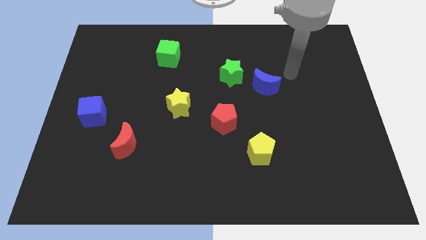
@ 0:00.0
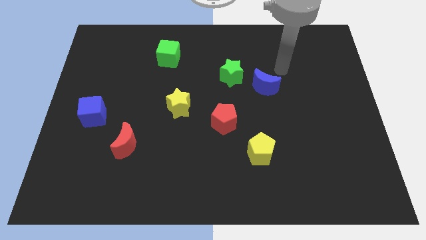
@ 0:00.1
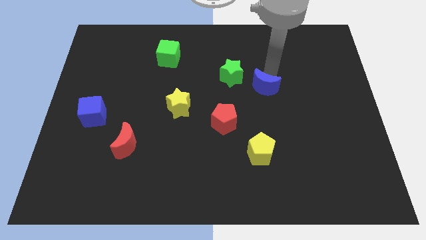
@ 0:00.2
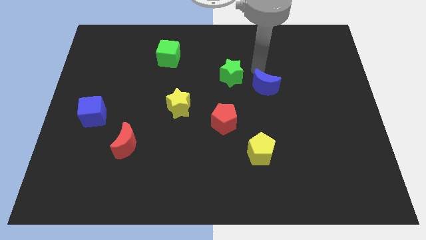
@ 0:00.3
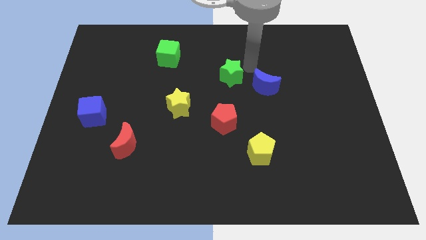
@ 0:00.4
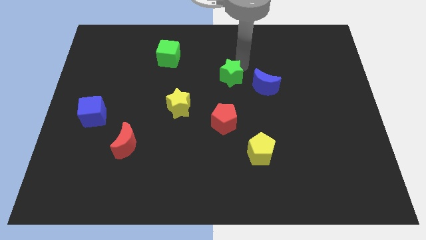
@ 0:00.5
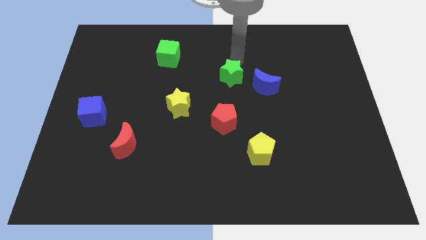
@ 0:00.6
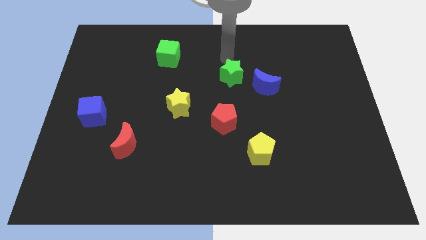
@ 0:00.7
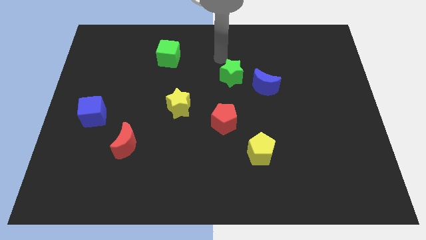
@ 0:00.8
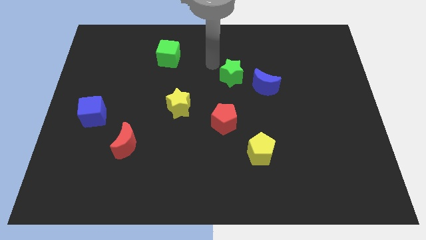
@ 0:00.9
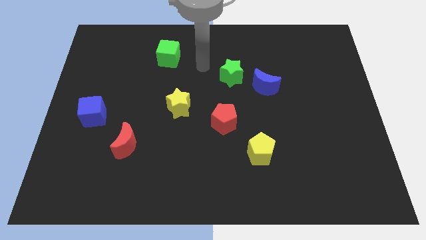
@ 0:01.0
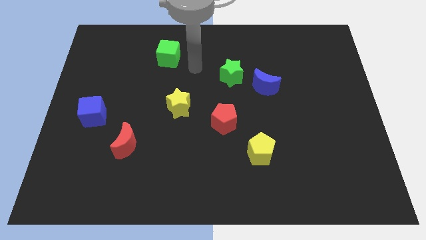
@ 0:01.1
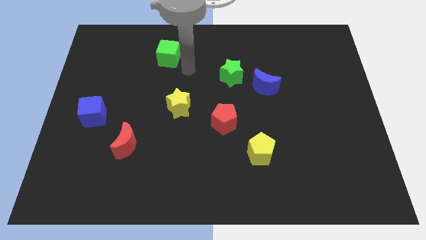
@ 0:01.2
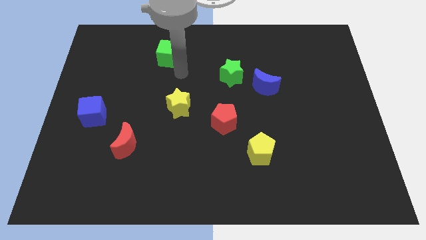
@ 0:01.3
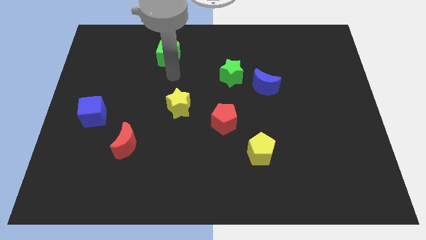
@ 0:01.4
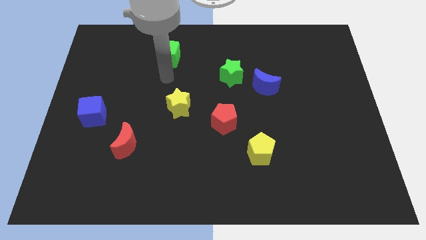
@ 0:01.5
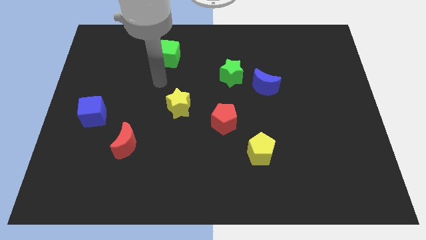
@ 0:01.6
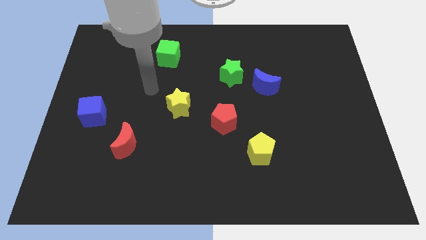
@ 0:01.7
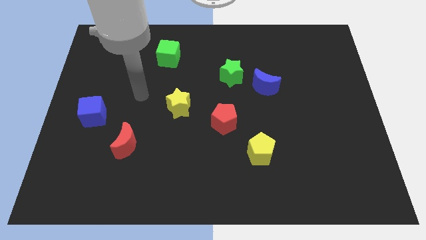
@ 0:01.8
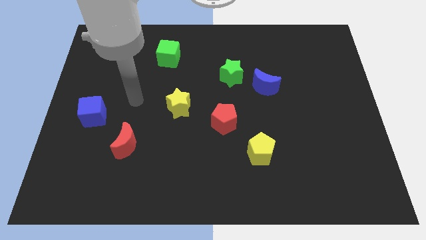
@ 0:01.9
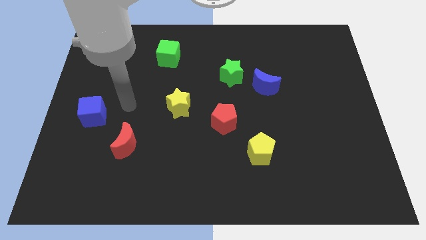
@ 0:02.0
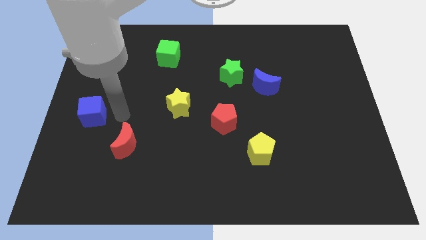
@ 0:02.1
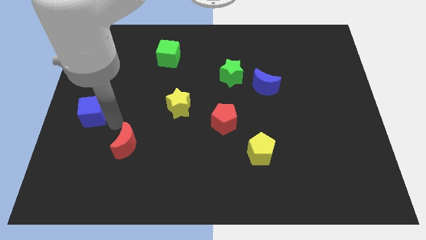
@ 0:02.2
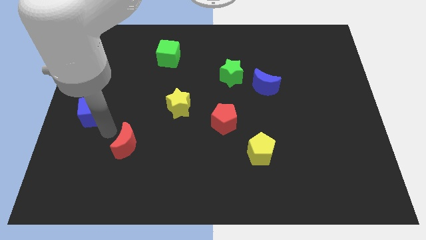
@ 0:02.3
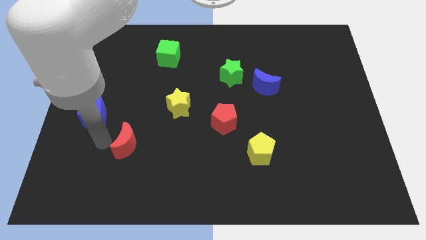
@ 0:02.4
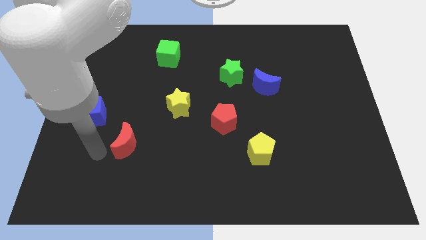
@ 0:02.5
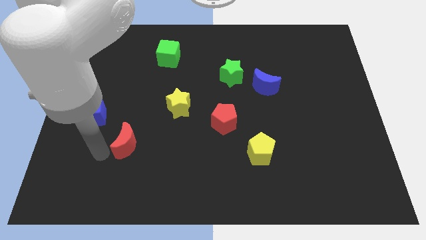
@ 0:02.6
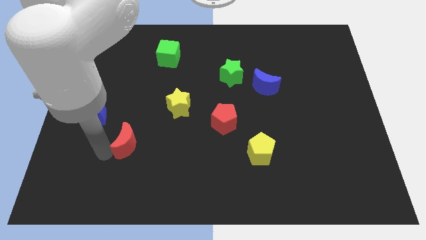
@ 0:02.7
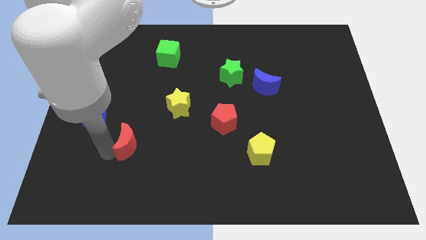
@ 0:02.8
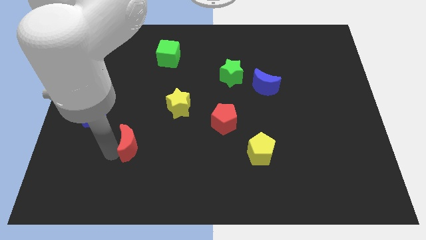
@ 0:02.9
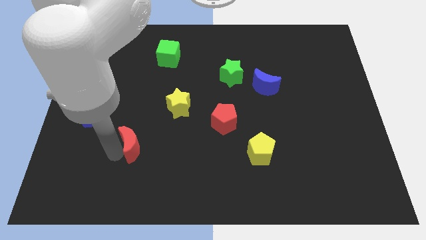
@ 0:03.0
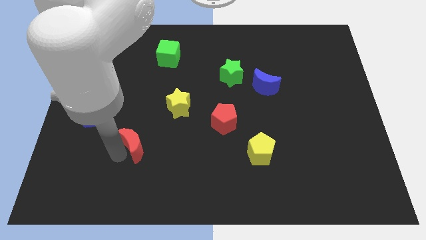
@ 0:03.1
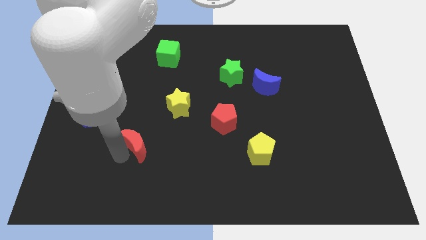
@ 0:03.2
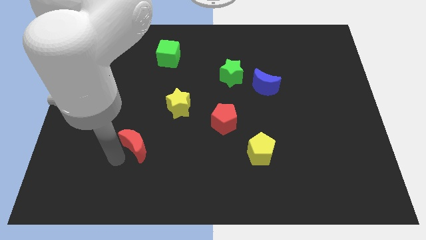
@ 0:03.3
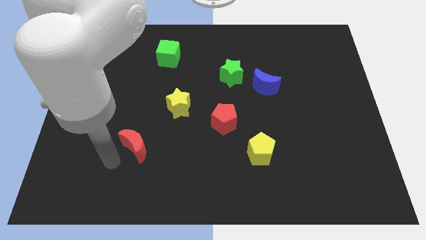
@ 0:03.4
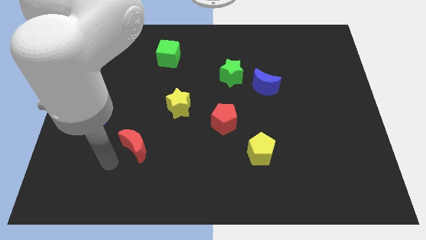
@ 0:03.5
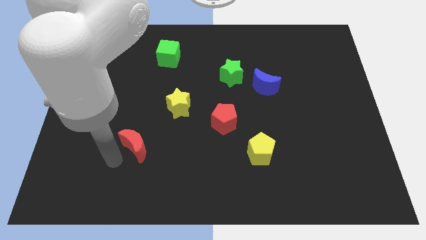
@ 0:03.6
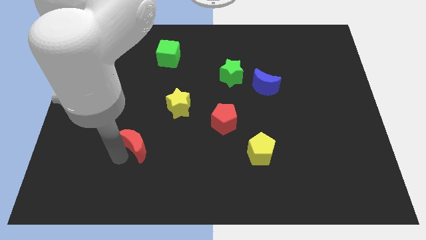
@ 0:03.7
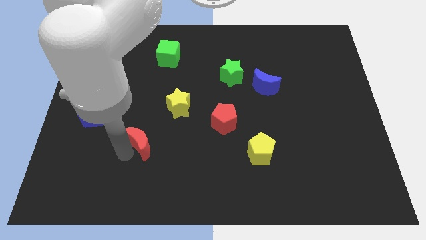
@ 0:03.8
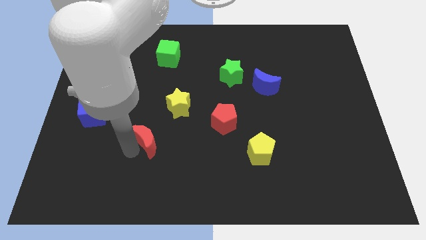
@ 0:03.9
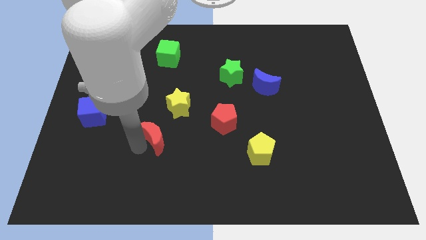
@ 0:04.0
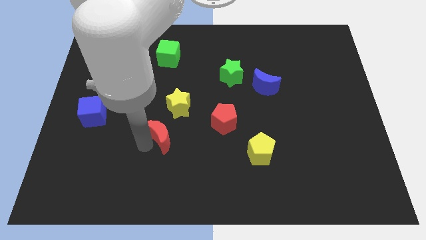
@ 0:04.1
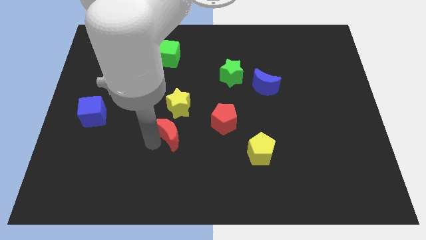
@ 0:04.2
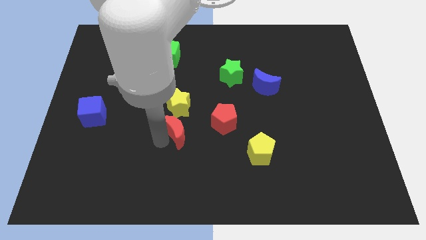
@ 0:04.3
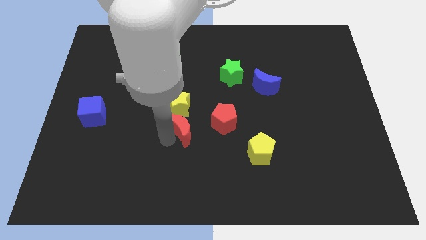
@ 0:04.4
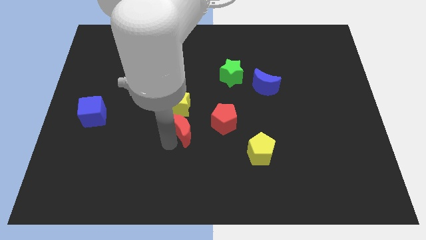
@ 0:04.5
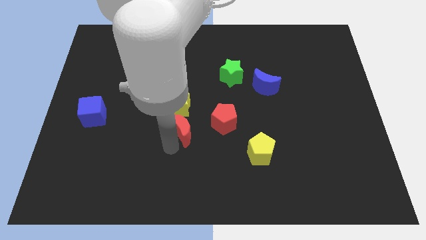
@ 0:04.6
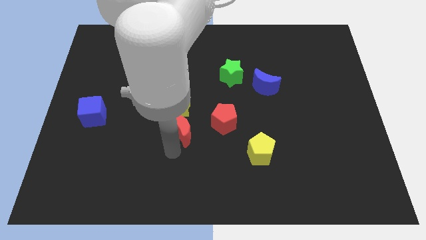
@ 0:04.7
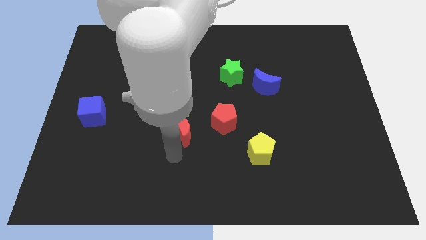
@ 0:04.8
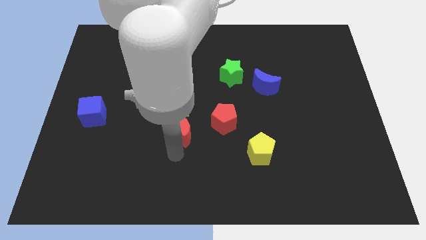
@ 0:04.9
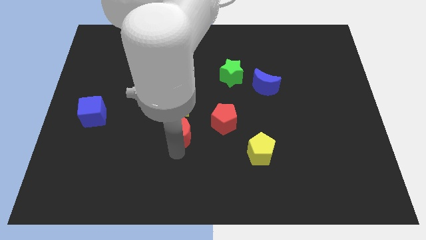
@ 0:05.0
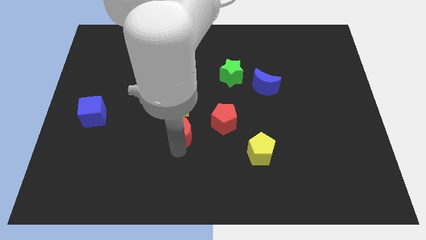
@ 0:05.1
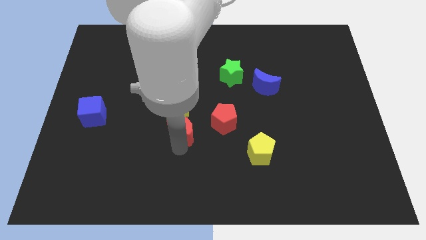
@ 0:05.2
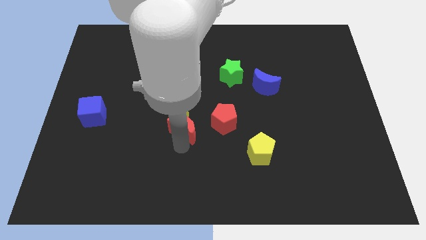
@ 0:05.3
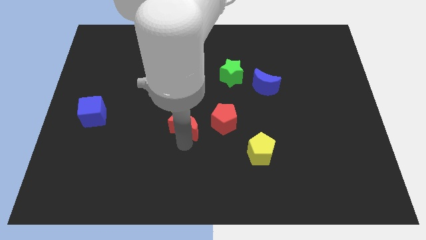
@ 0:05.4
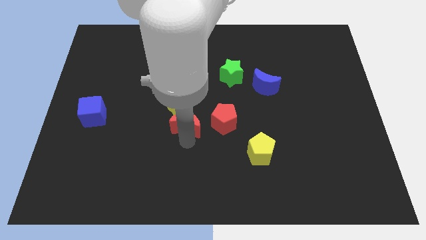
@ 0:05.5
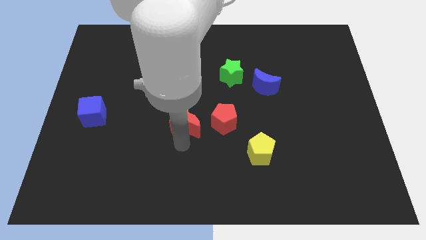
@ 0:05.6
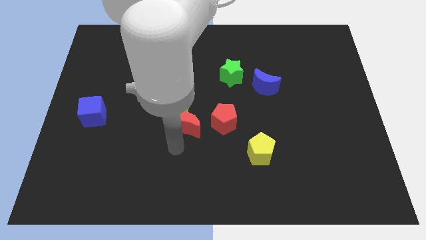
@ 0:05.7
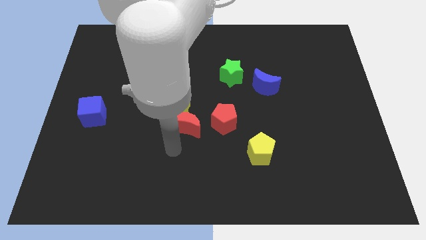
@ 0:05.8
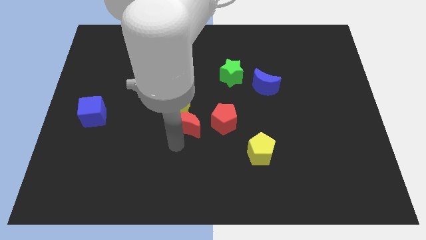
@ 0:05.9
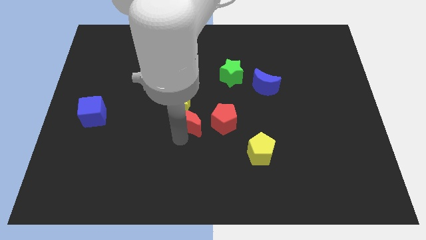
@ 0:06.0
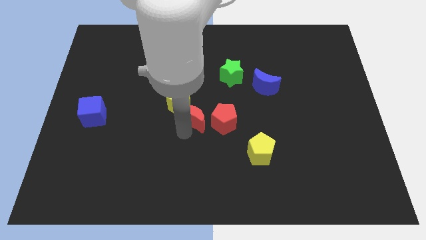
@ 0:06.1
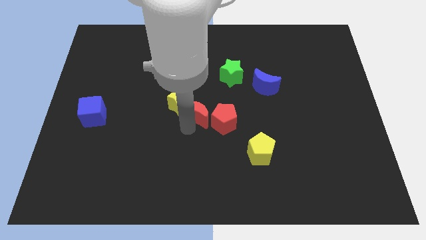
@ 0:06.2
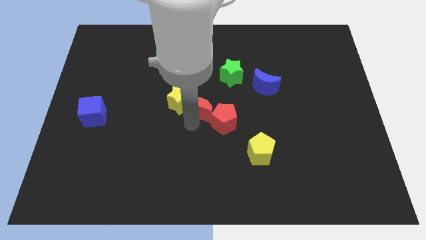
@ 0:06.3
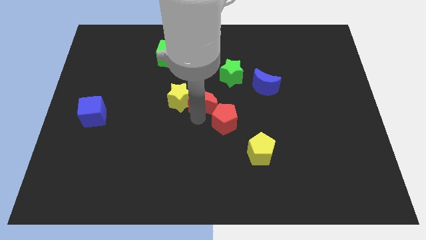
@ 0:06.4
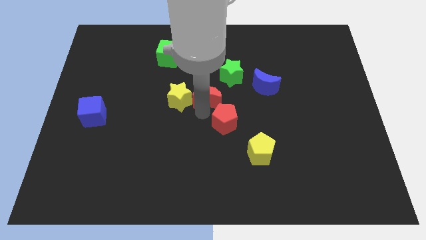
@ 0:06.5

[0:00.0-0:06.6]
slide the red moon diagonally up and to the right of the yellow star
